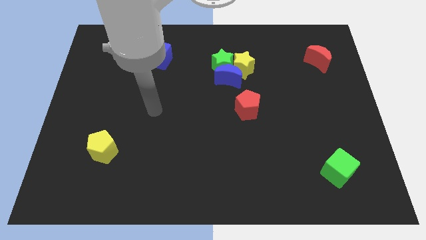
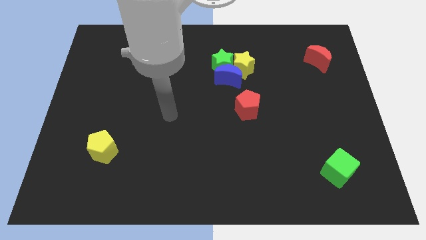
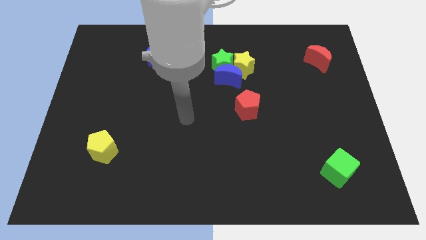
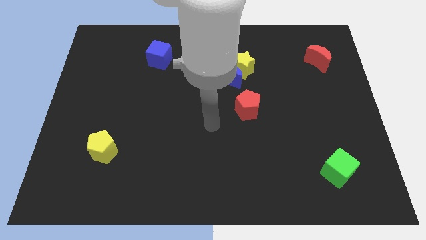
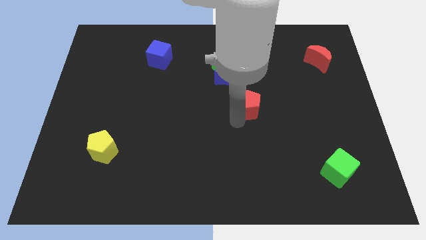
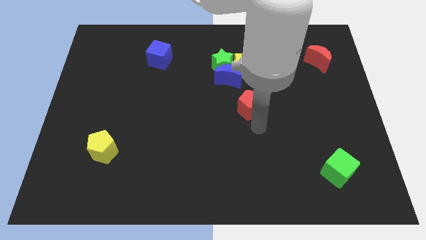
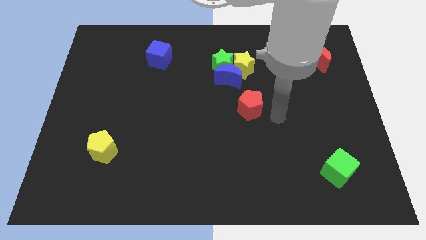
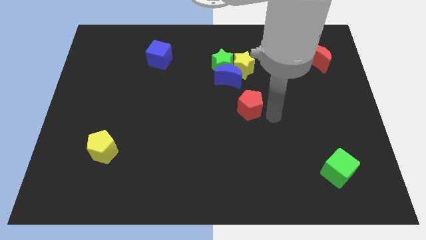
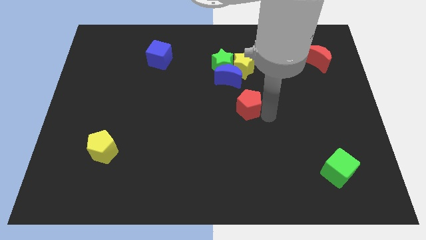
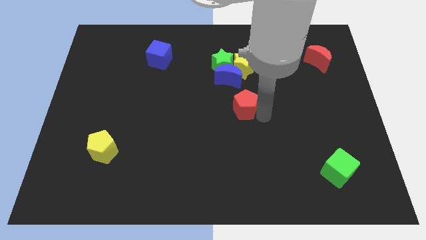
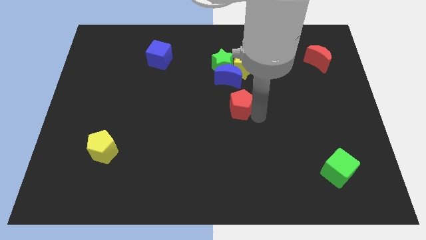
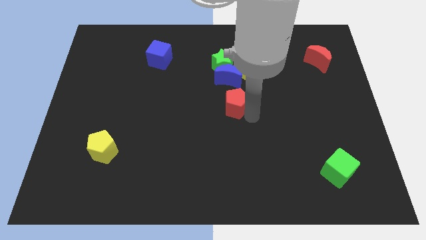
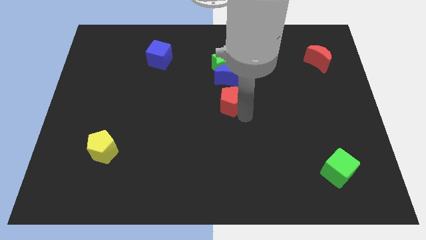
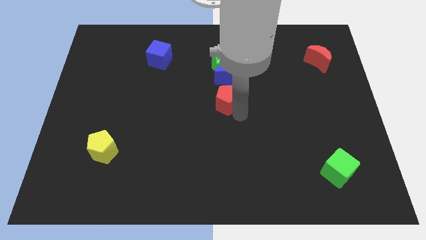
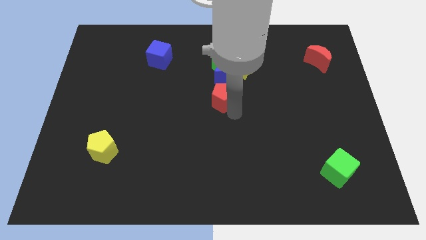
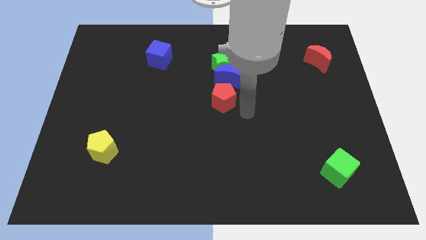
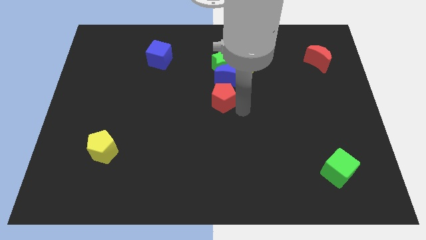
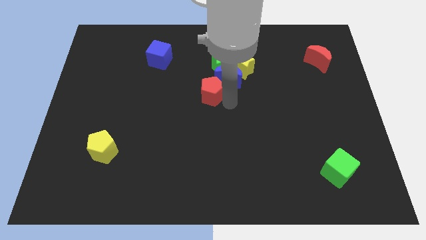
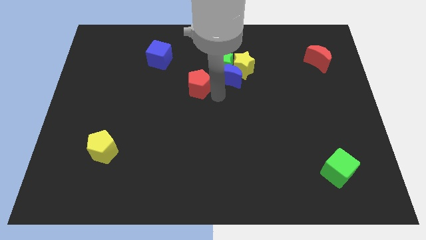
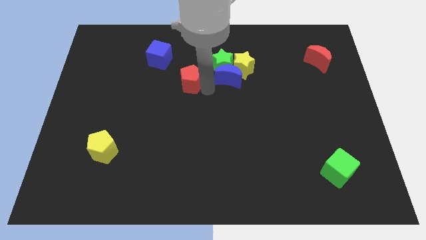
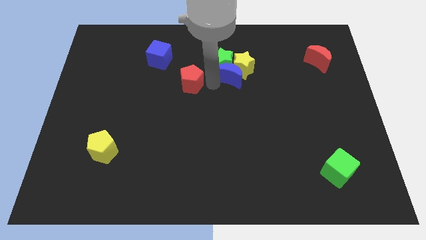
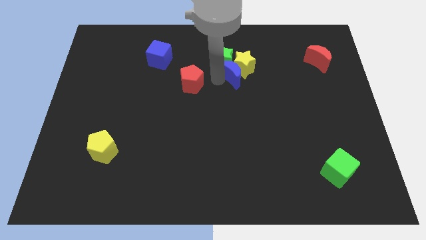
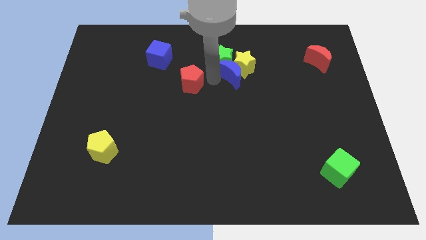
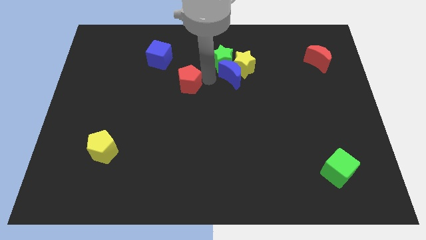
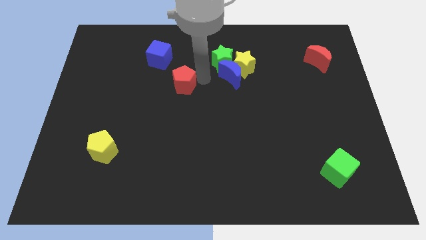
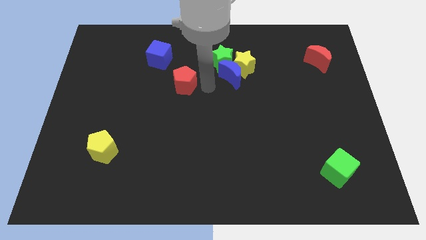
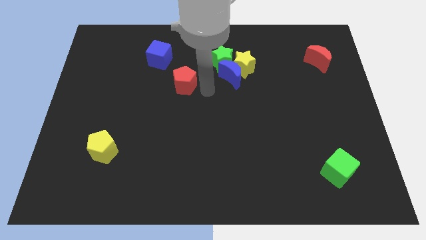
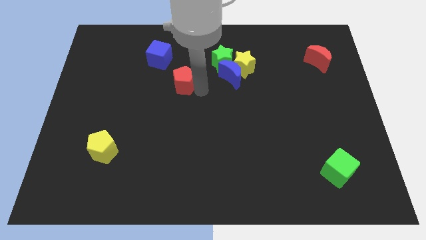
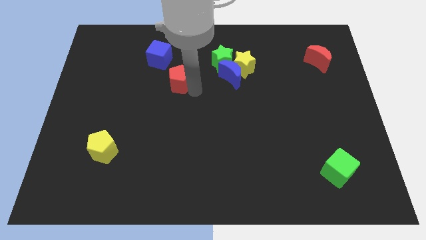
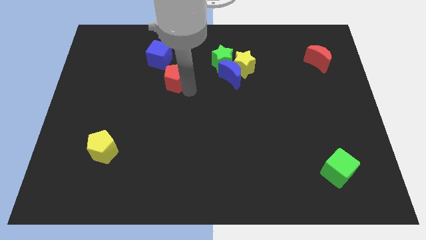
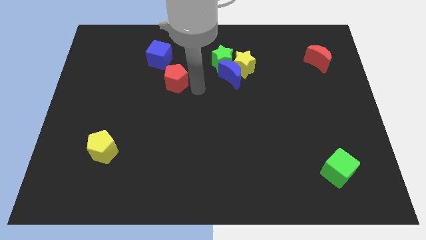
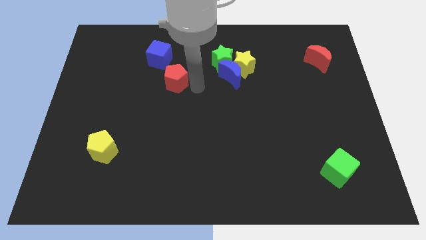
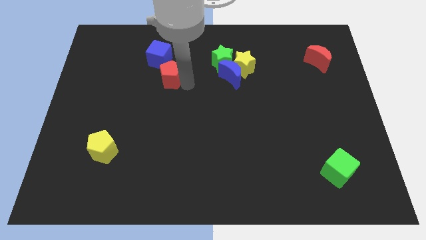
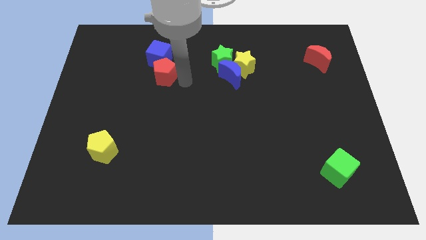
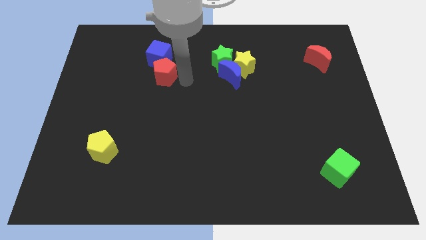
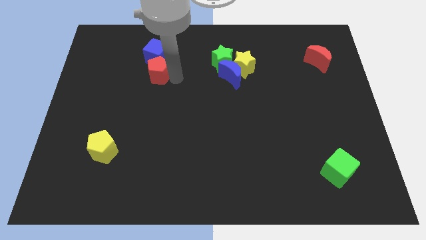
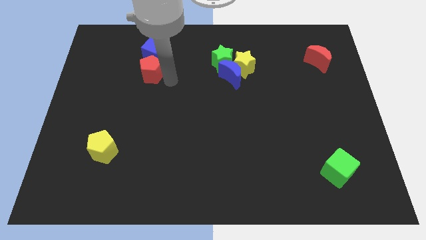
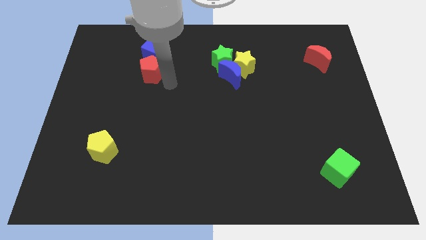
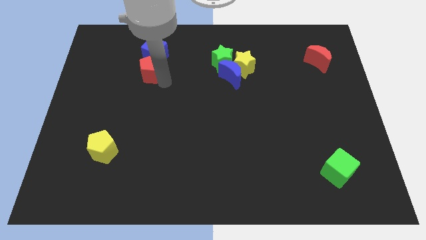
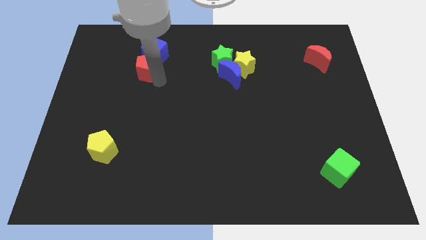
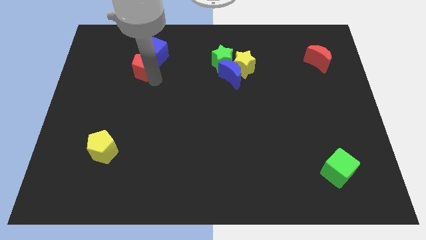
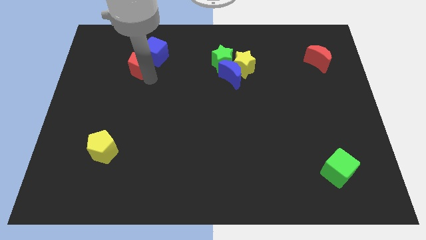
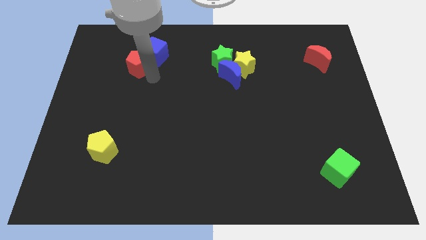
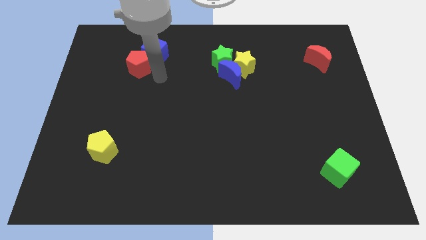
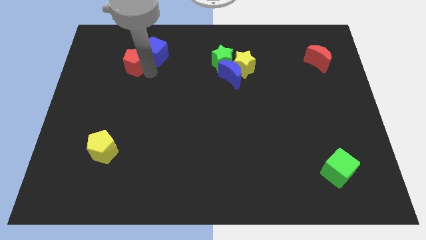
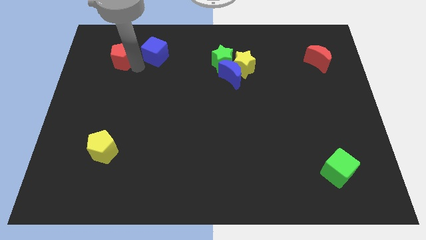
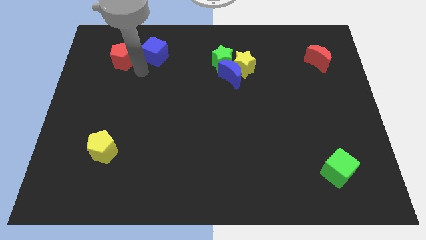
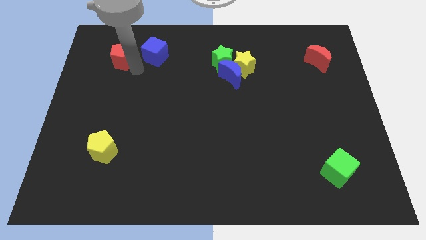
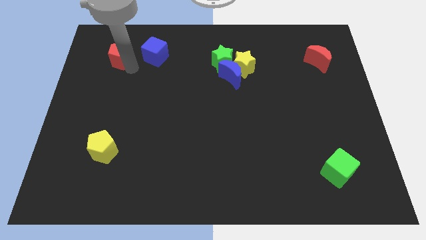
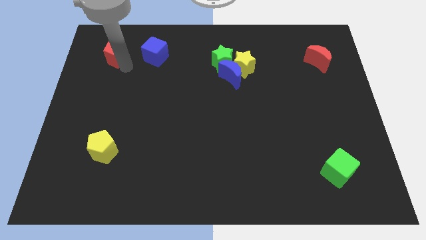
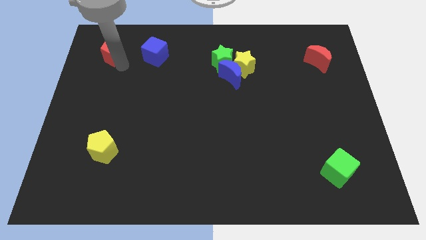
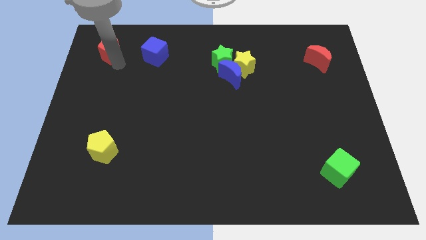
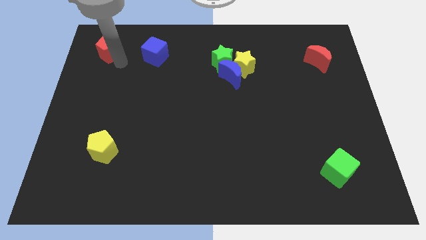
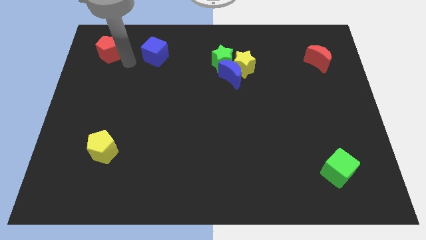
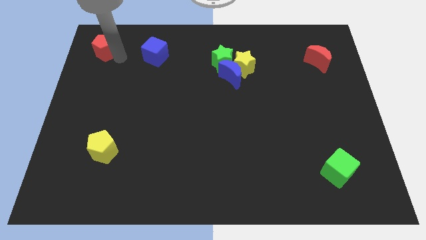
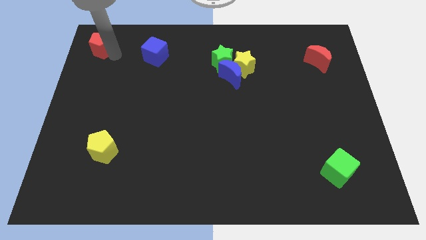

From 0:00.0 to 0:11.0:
push the red pentagon to the top left of the board

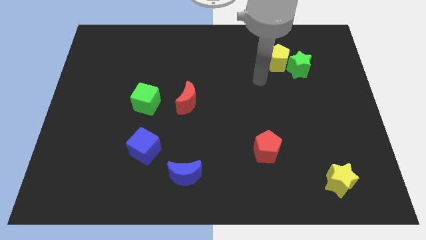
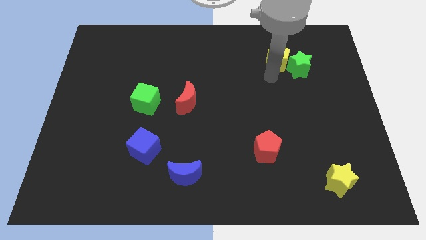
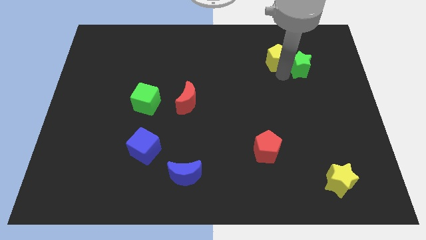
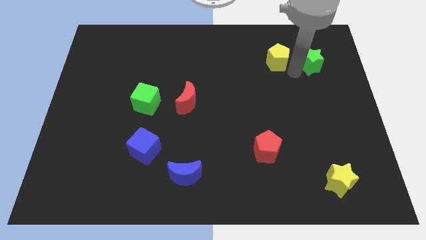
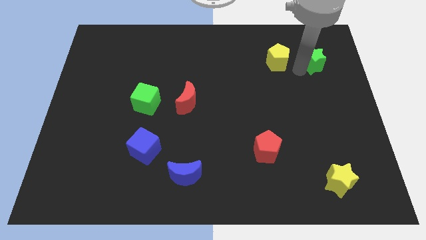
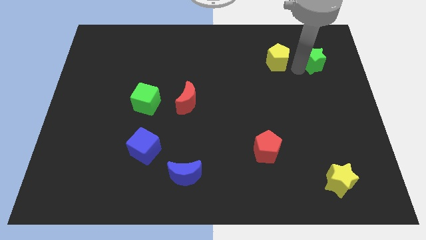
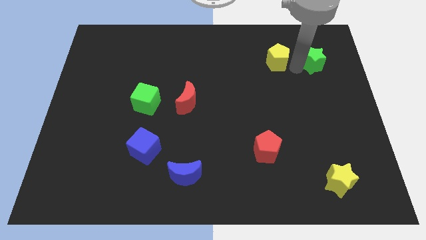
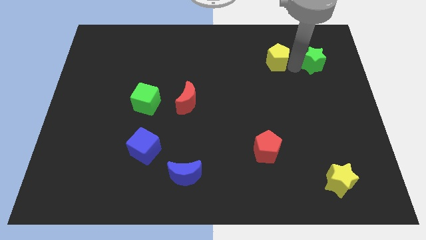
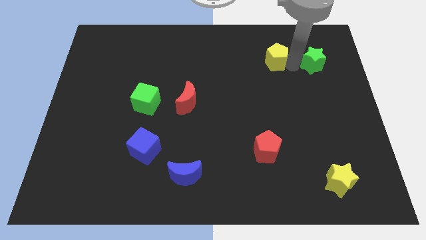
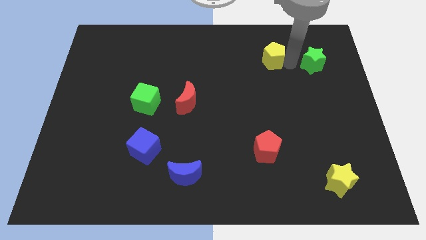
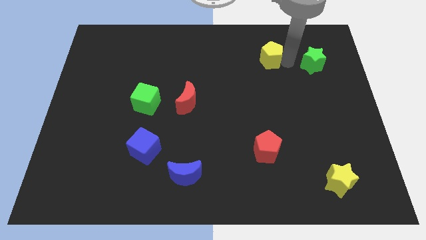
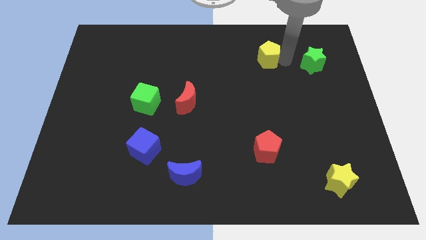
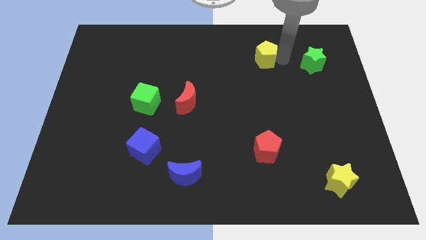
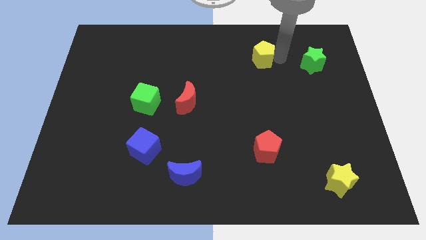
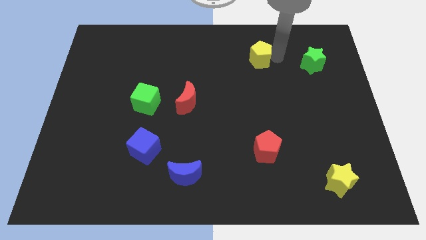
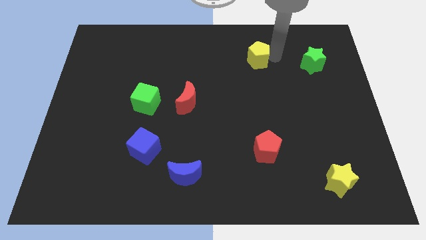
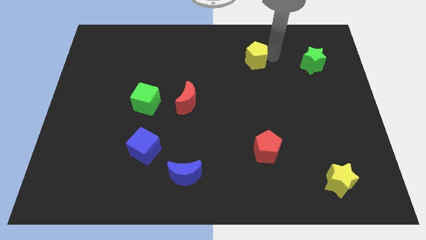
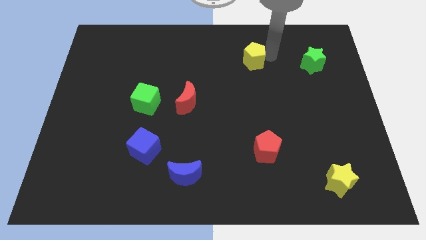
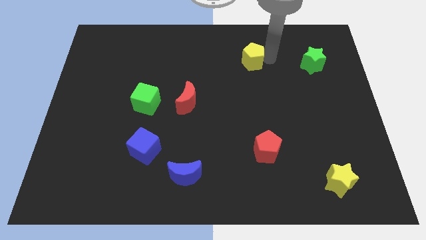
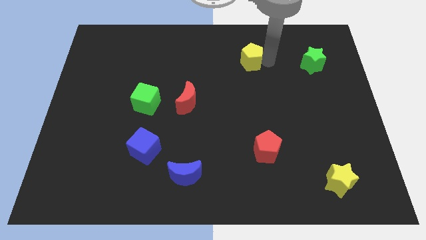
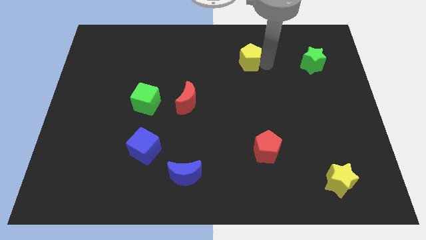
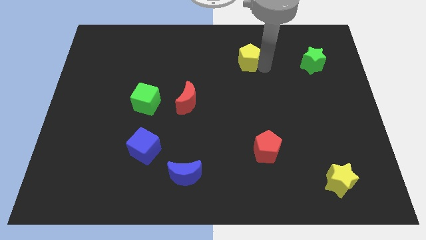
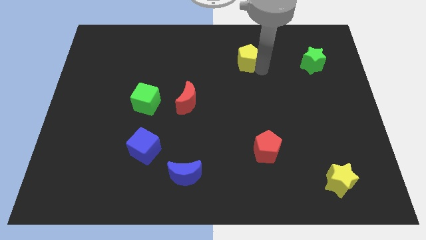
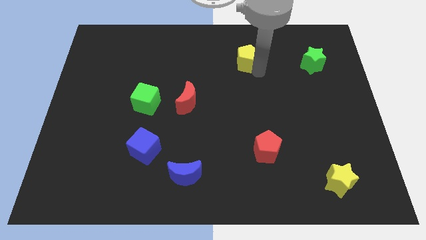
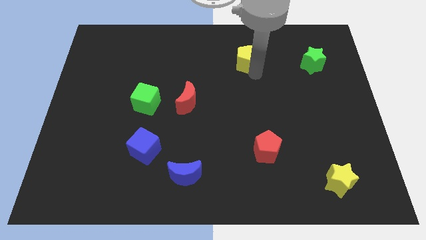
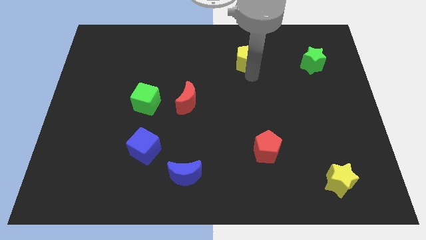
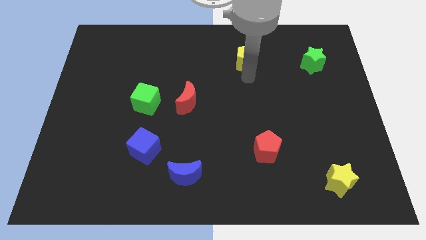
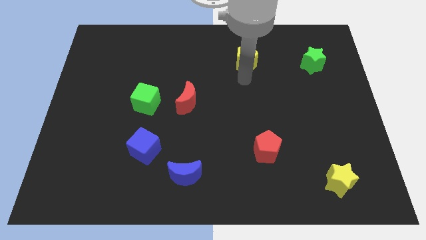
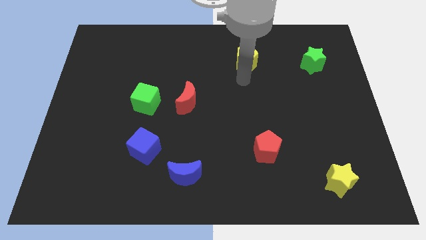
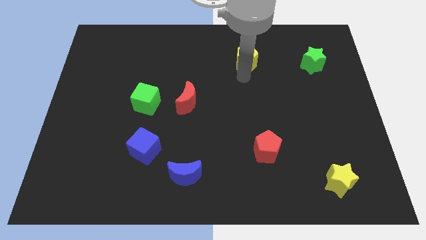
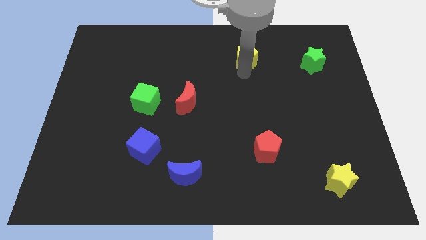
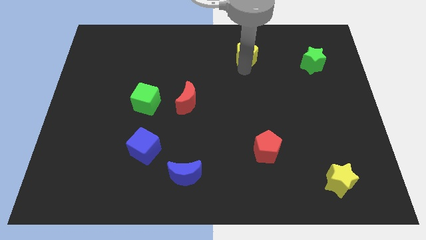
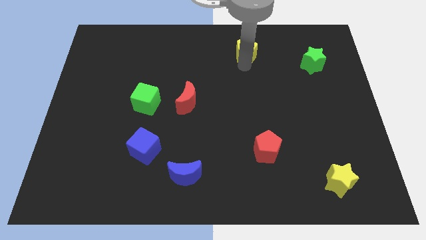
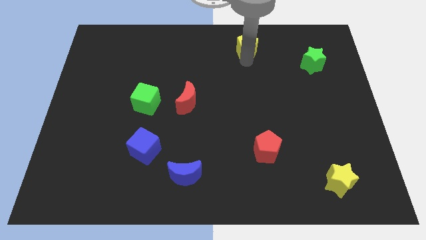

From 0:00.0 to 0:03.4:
slide the yellow pentagon to the top
